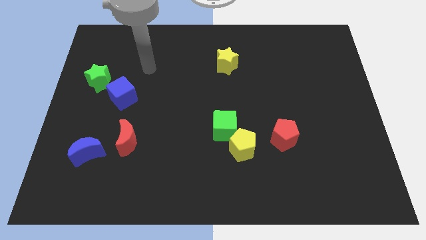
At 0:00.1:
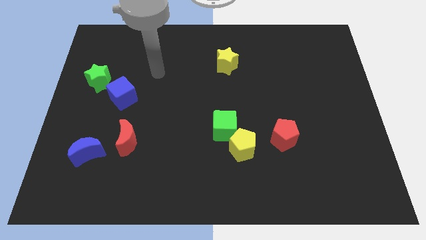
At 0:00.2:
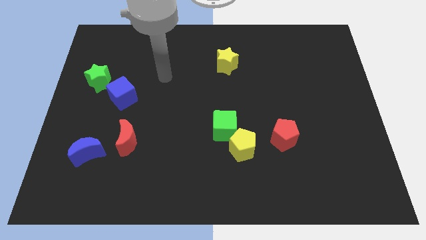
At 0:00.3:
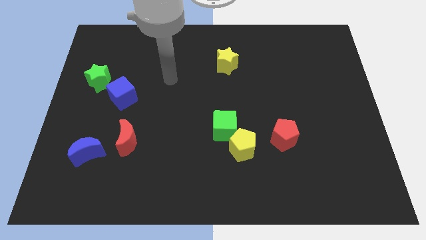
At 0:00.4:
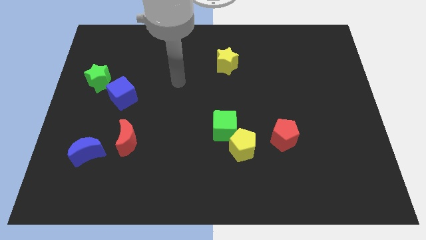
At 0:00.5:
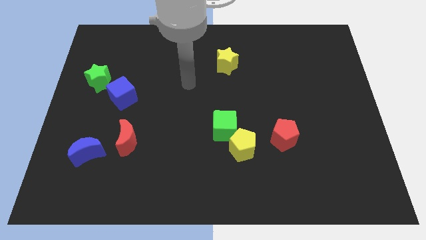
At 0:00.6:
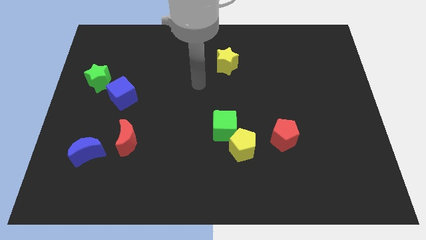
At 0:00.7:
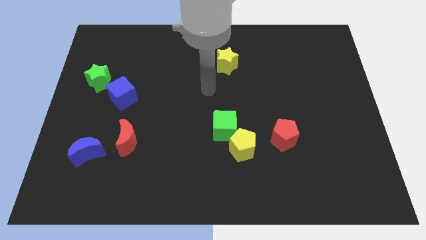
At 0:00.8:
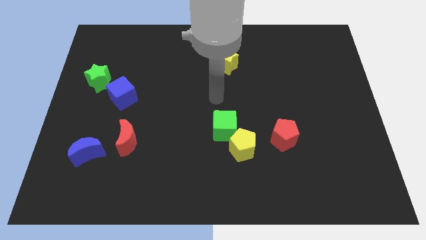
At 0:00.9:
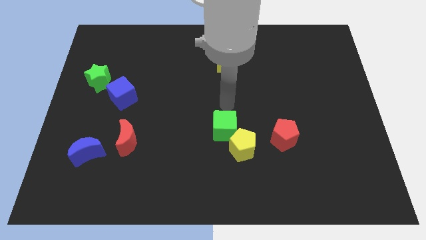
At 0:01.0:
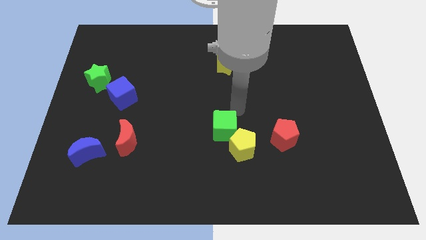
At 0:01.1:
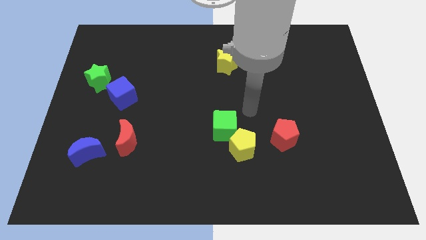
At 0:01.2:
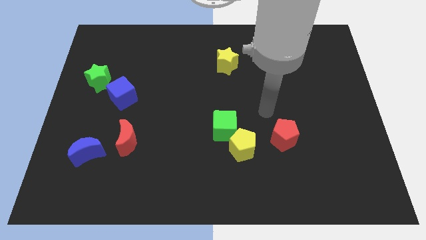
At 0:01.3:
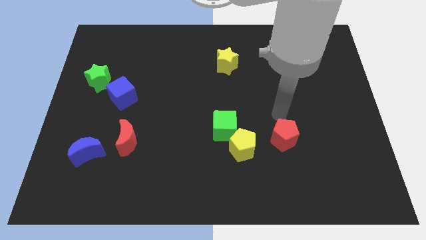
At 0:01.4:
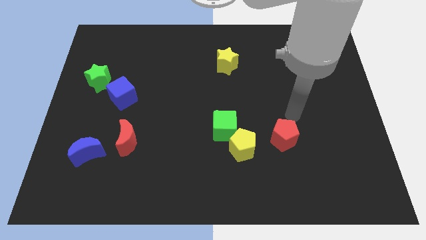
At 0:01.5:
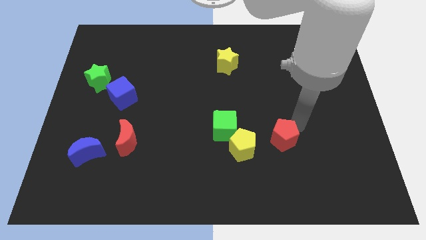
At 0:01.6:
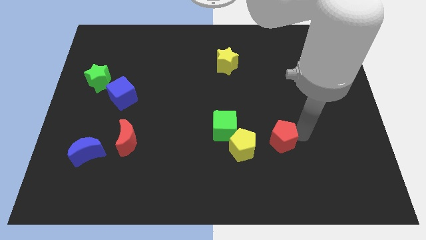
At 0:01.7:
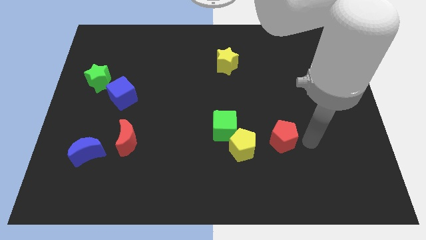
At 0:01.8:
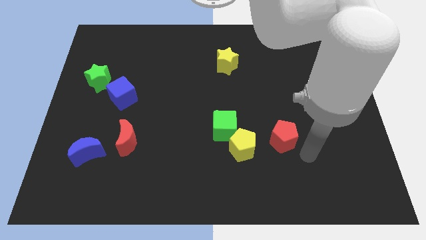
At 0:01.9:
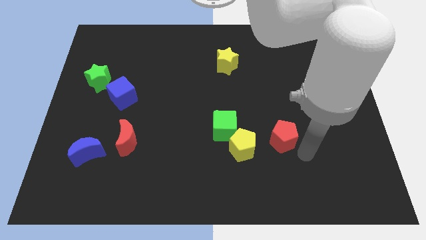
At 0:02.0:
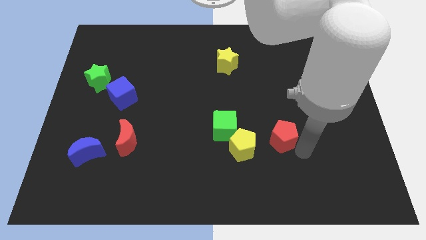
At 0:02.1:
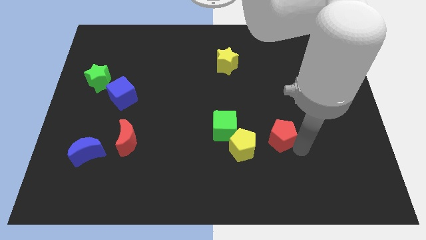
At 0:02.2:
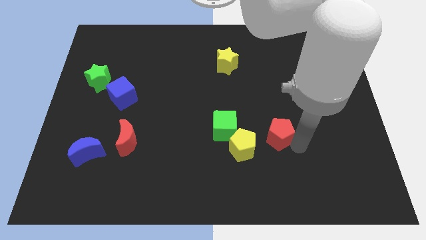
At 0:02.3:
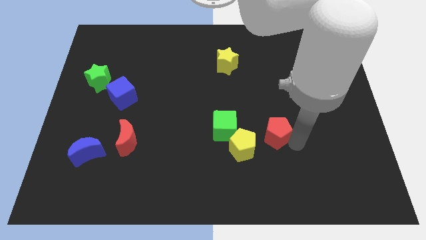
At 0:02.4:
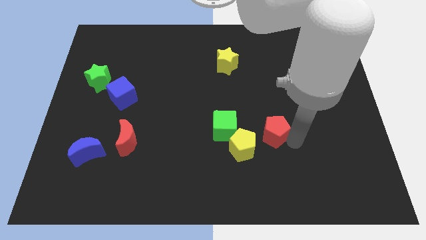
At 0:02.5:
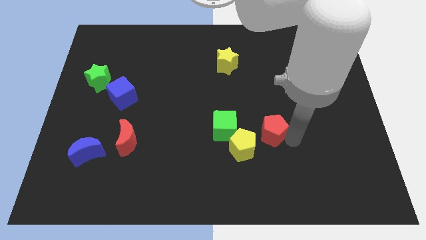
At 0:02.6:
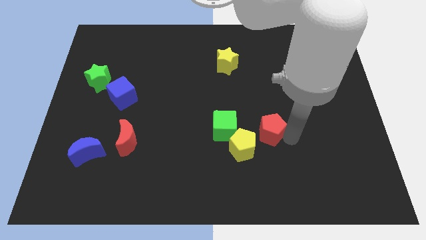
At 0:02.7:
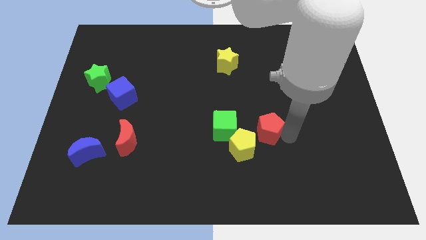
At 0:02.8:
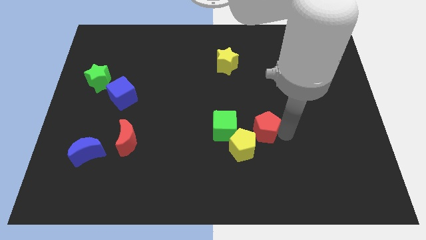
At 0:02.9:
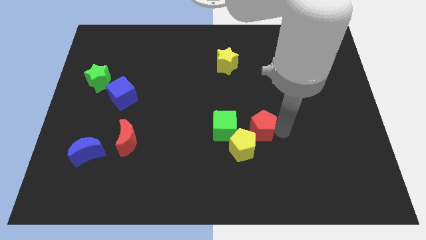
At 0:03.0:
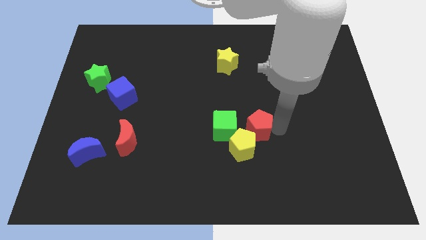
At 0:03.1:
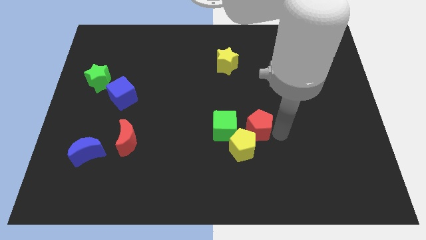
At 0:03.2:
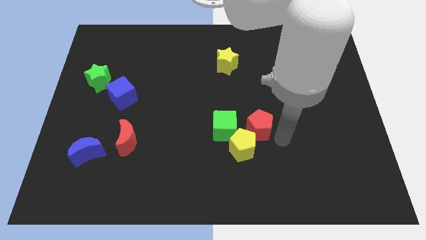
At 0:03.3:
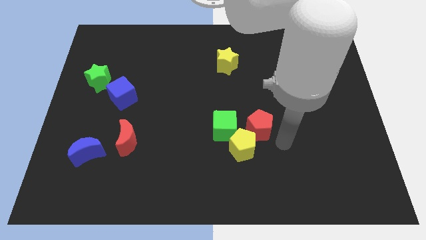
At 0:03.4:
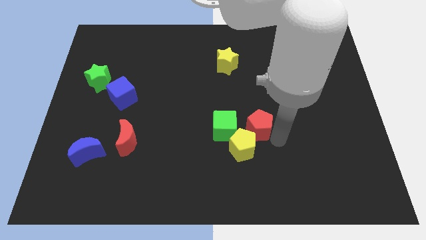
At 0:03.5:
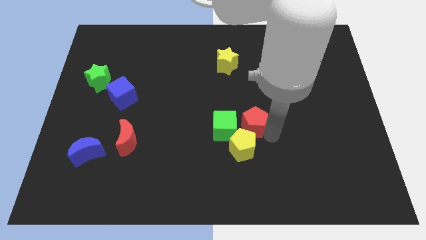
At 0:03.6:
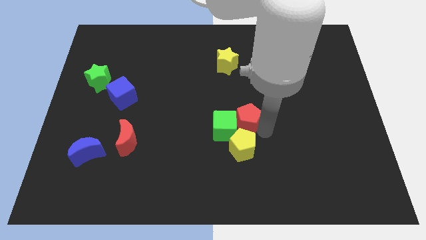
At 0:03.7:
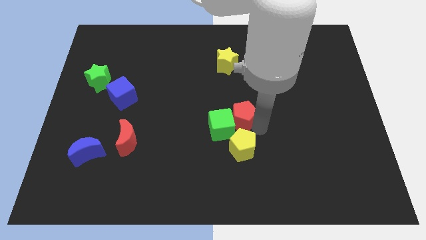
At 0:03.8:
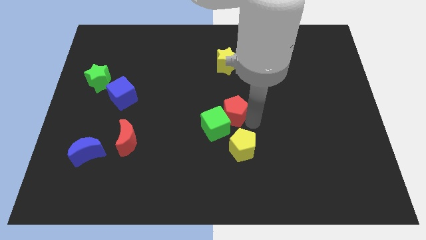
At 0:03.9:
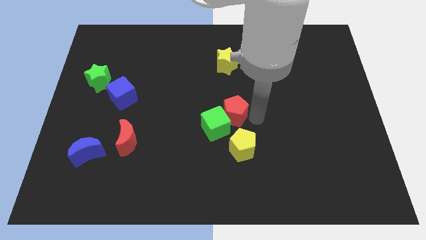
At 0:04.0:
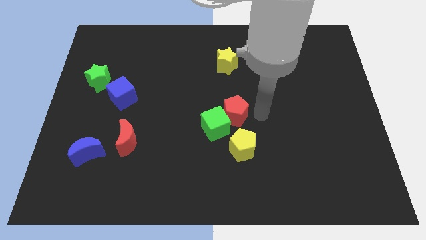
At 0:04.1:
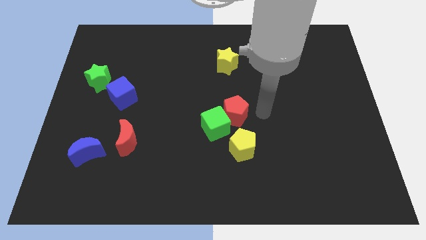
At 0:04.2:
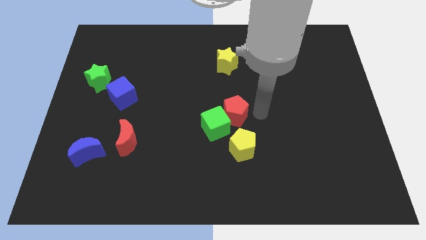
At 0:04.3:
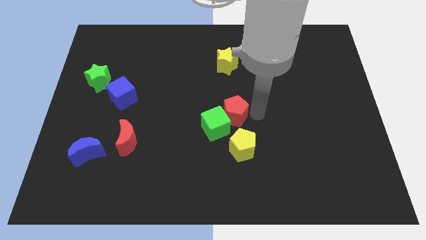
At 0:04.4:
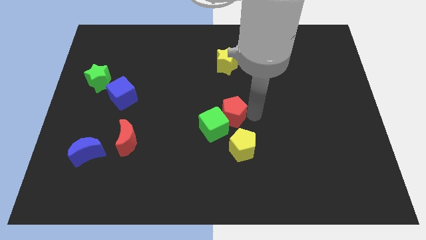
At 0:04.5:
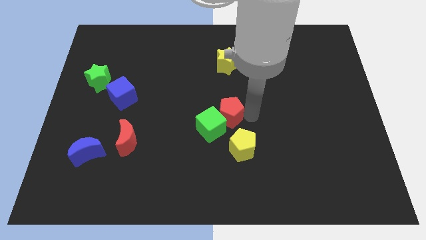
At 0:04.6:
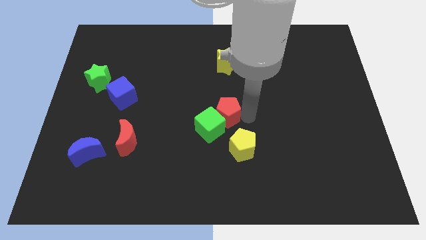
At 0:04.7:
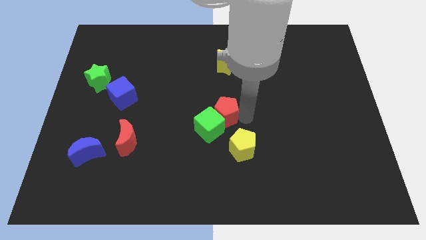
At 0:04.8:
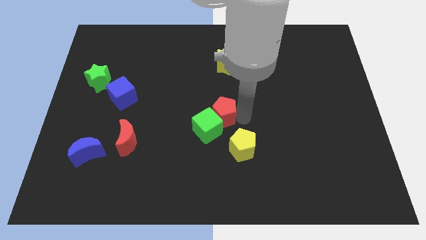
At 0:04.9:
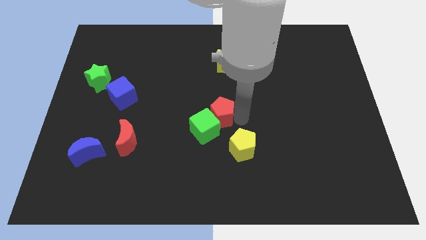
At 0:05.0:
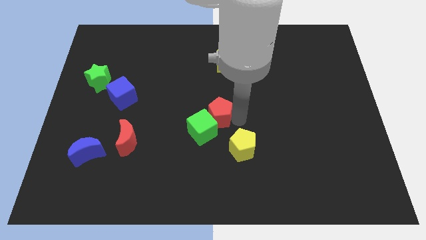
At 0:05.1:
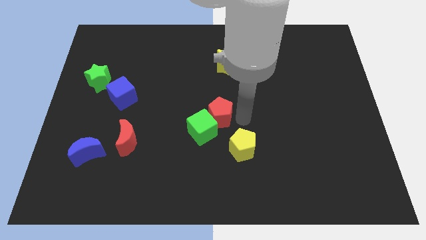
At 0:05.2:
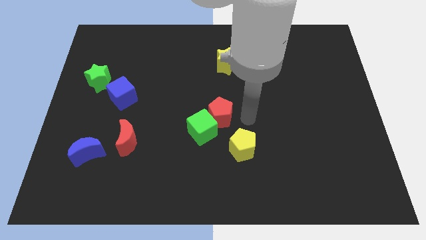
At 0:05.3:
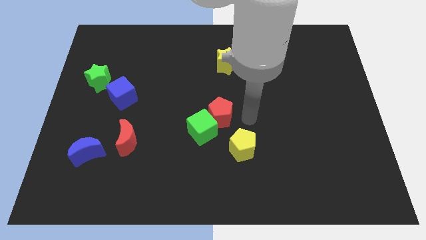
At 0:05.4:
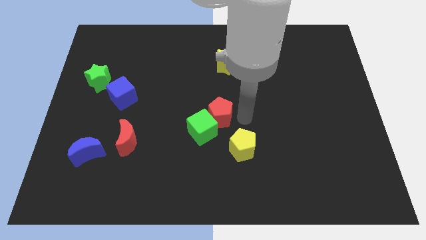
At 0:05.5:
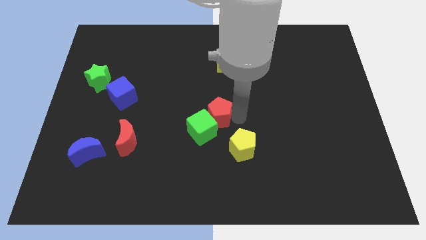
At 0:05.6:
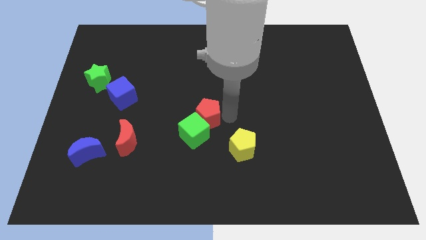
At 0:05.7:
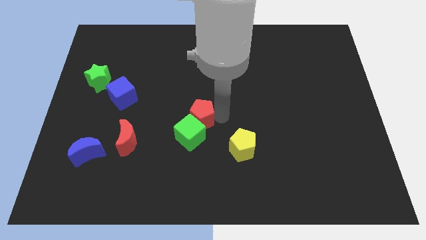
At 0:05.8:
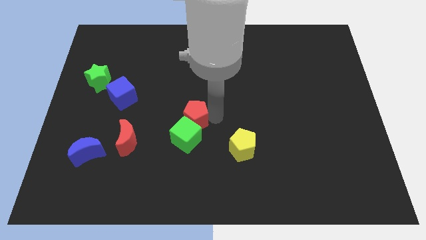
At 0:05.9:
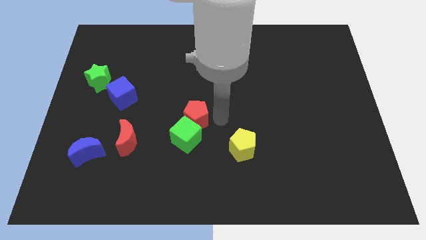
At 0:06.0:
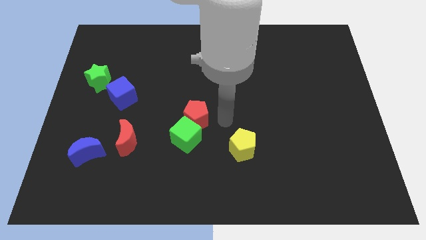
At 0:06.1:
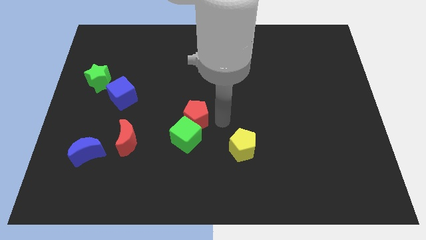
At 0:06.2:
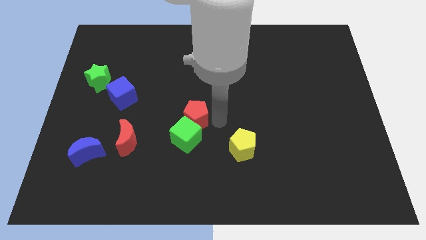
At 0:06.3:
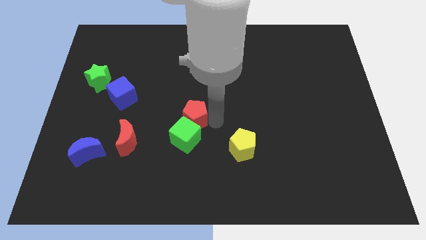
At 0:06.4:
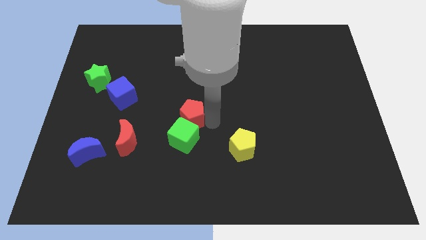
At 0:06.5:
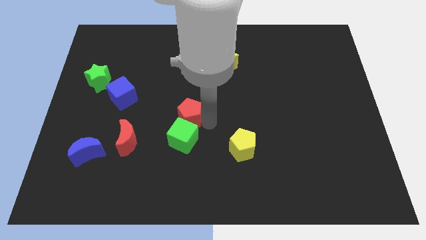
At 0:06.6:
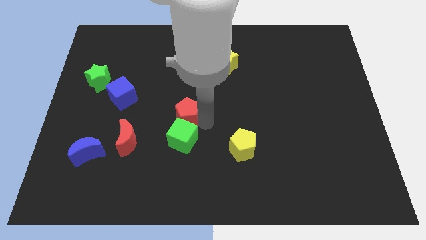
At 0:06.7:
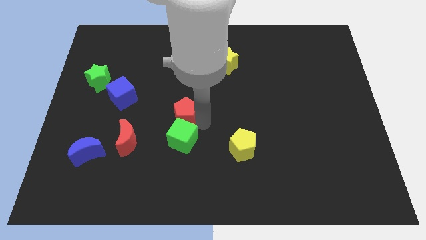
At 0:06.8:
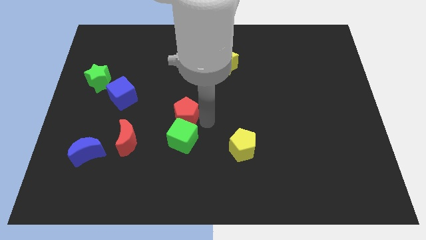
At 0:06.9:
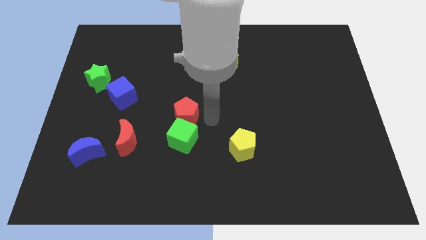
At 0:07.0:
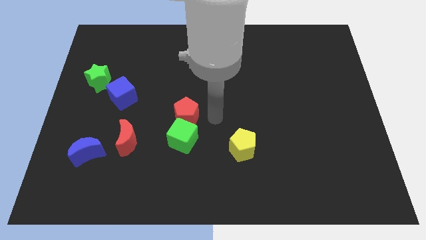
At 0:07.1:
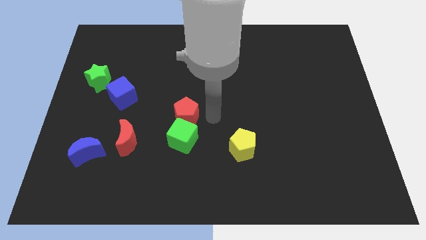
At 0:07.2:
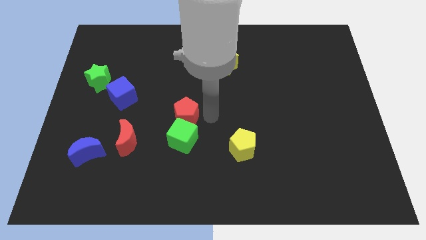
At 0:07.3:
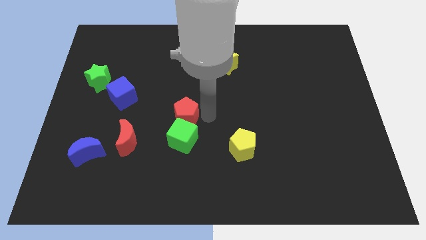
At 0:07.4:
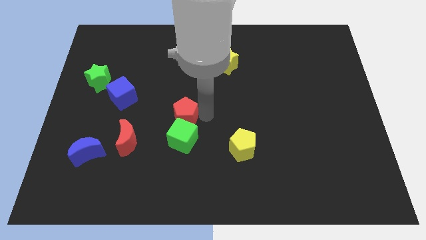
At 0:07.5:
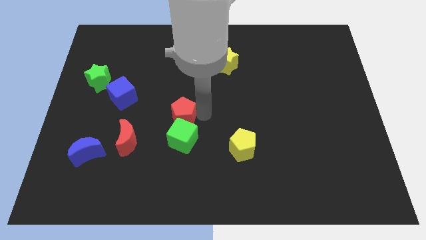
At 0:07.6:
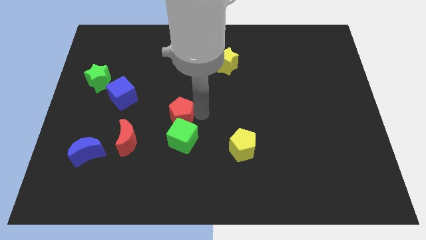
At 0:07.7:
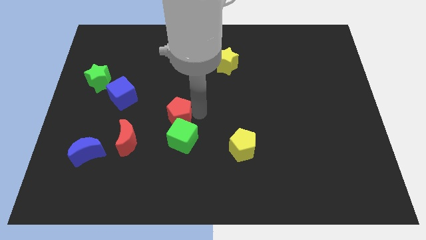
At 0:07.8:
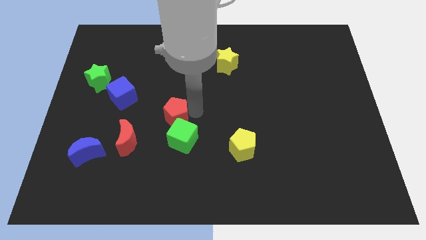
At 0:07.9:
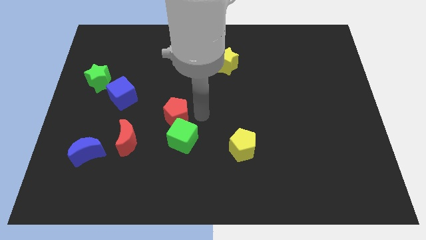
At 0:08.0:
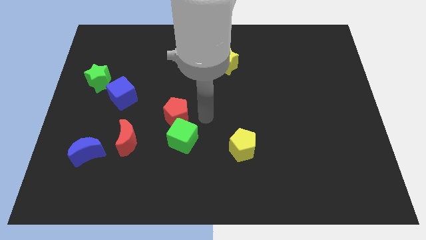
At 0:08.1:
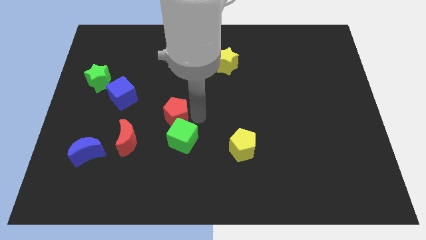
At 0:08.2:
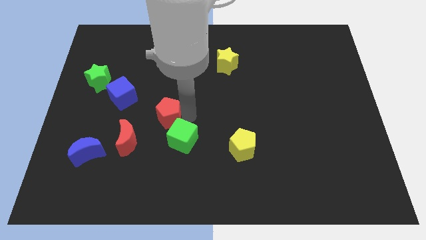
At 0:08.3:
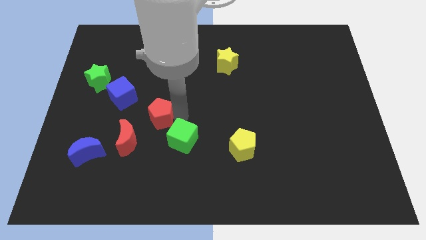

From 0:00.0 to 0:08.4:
push the red pentagon diagonally down and to the right of the blue cube
